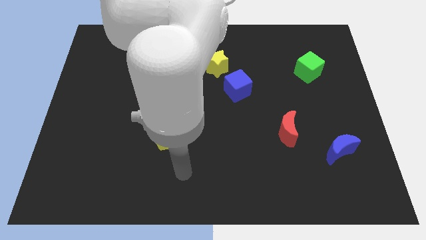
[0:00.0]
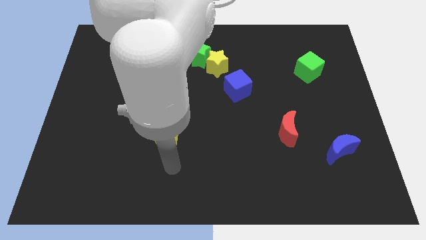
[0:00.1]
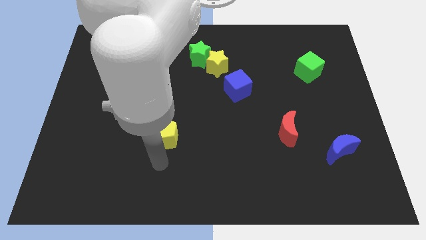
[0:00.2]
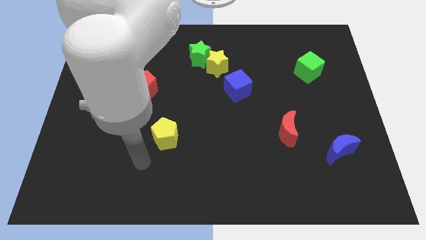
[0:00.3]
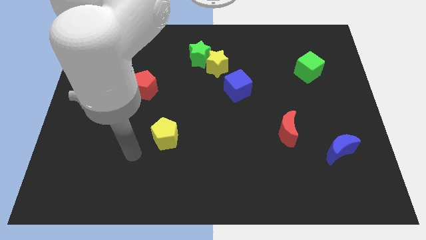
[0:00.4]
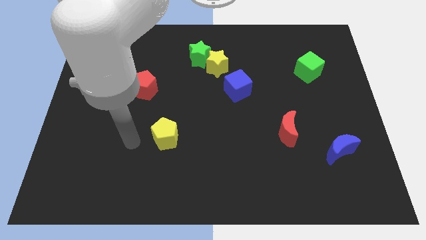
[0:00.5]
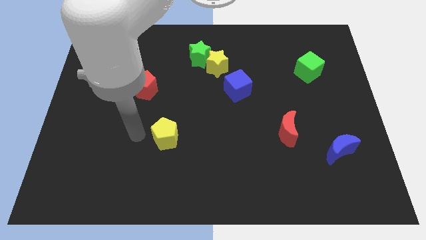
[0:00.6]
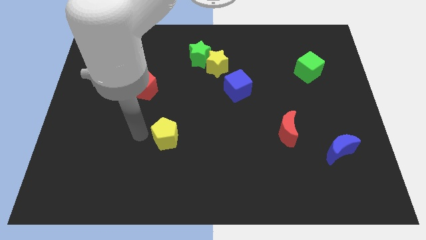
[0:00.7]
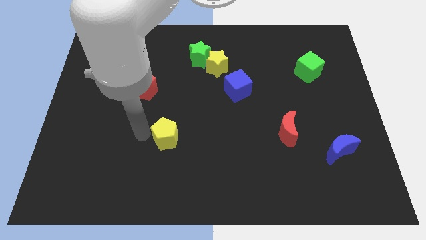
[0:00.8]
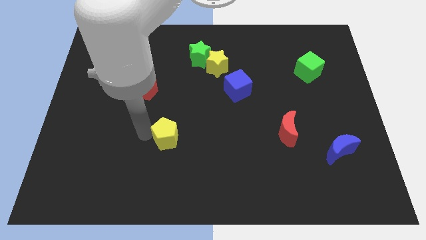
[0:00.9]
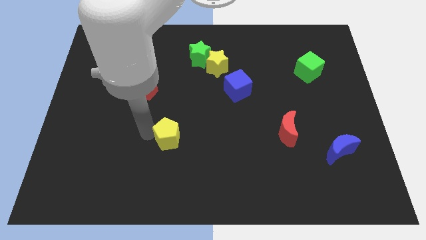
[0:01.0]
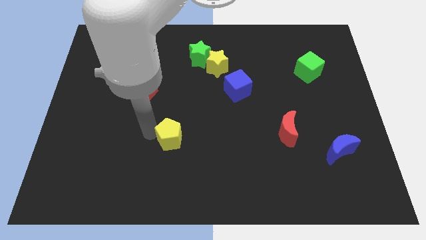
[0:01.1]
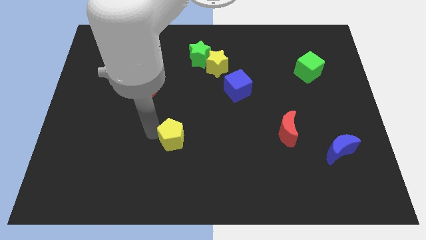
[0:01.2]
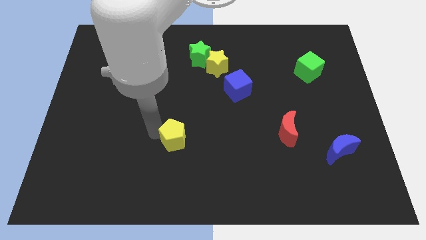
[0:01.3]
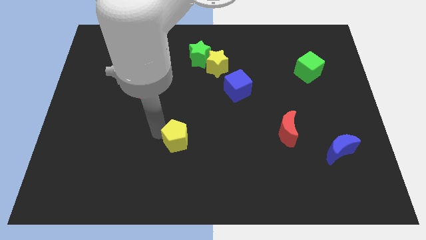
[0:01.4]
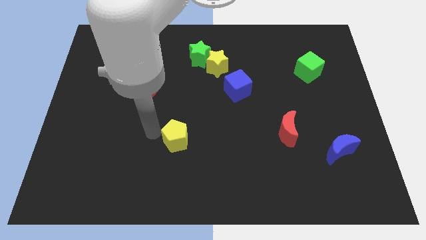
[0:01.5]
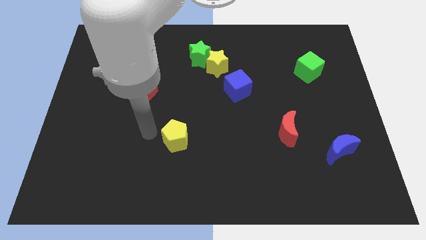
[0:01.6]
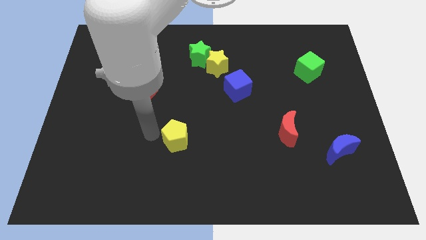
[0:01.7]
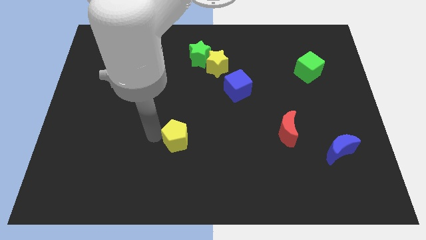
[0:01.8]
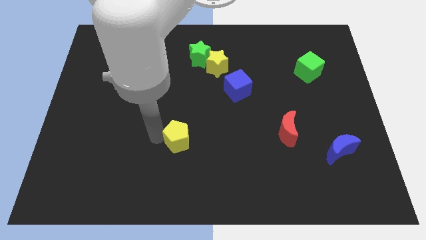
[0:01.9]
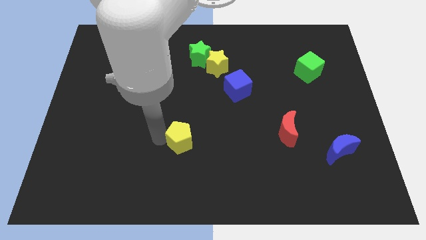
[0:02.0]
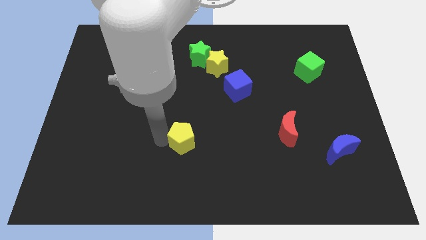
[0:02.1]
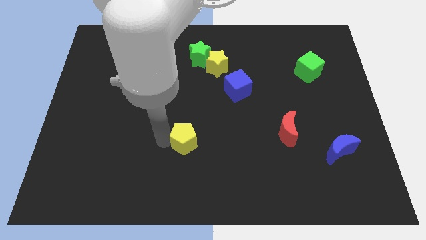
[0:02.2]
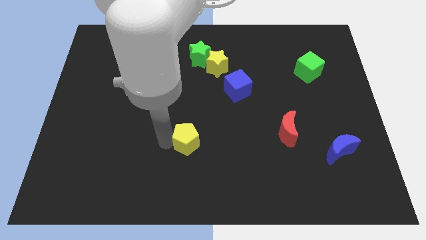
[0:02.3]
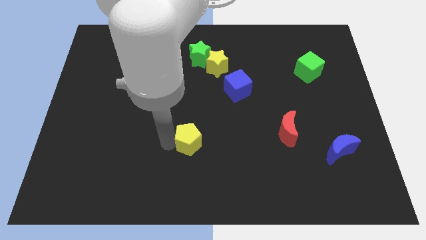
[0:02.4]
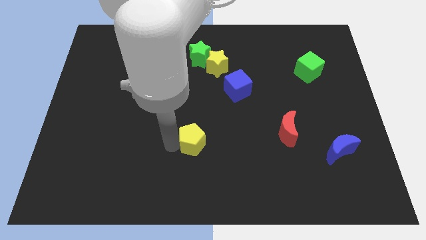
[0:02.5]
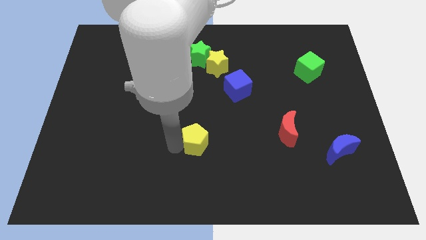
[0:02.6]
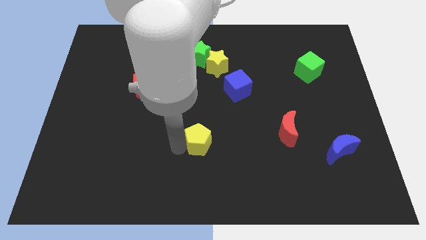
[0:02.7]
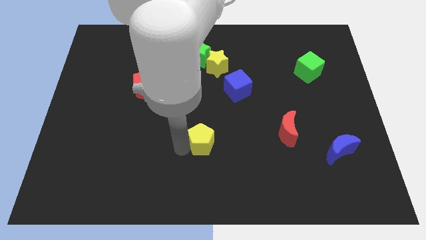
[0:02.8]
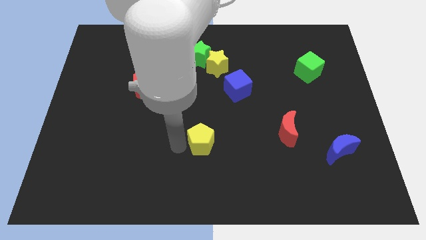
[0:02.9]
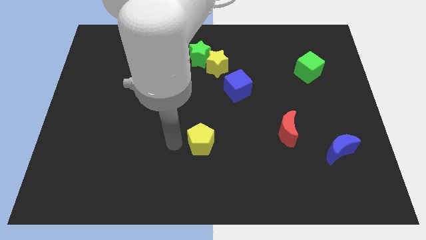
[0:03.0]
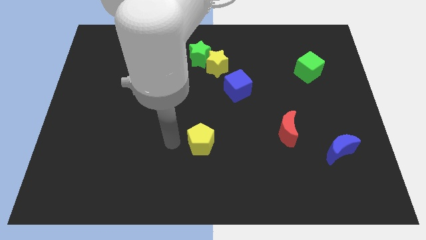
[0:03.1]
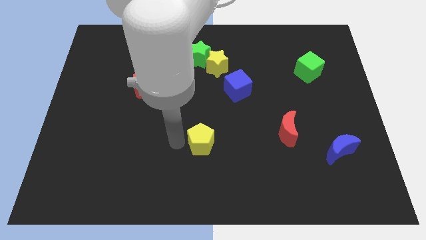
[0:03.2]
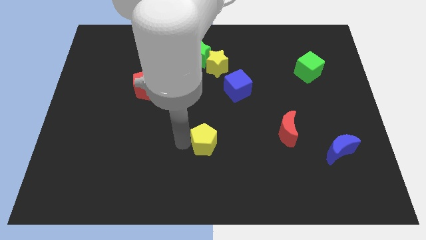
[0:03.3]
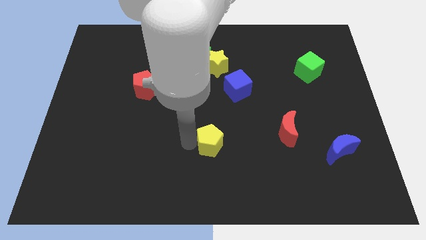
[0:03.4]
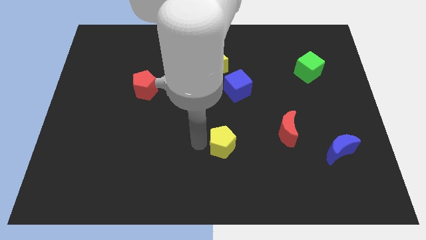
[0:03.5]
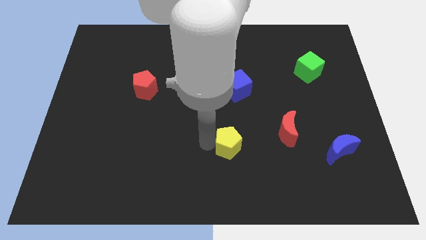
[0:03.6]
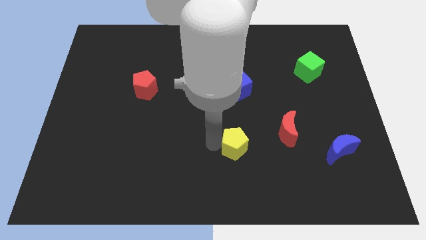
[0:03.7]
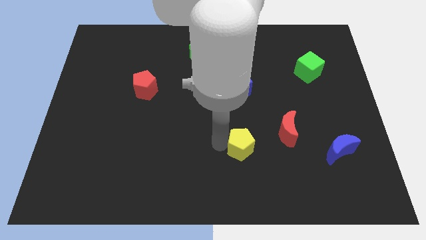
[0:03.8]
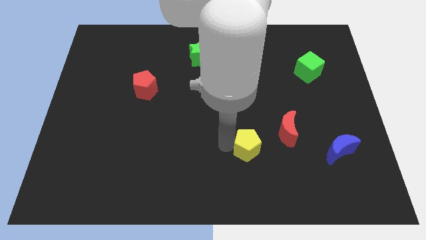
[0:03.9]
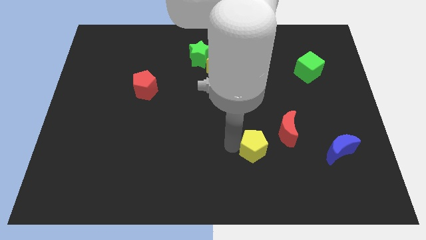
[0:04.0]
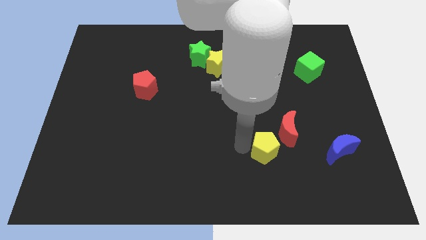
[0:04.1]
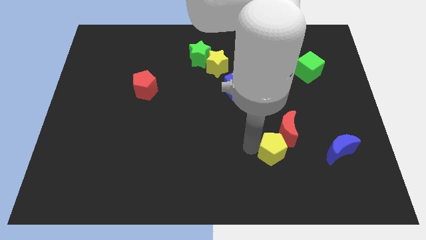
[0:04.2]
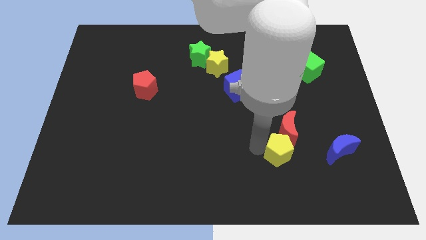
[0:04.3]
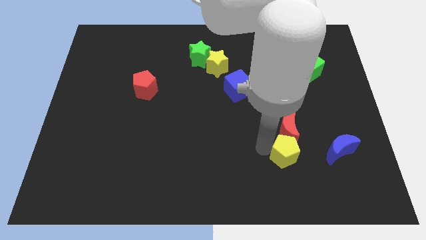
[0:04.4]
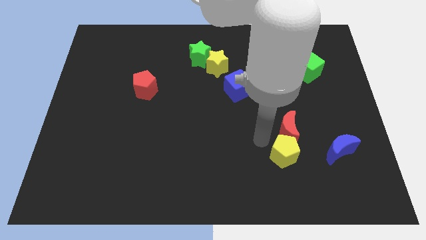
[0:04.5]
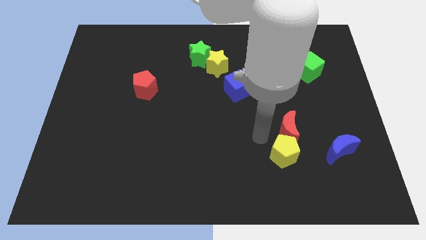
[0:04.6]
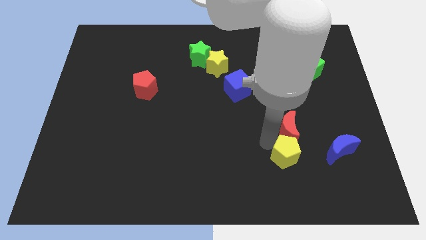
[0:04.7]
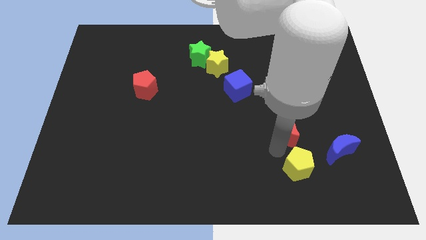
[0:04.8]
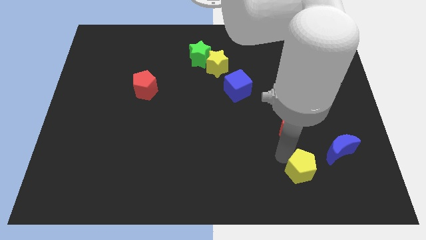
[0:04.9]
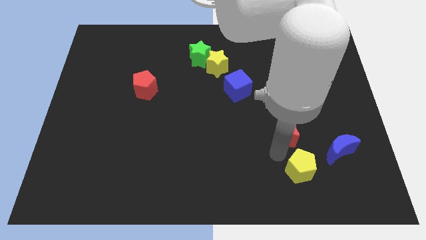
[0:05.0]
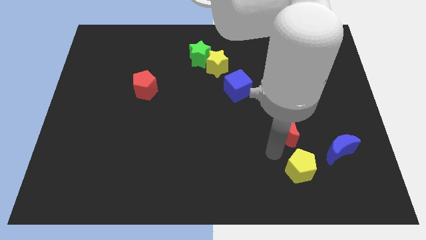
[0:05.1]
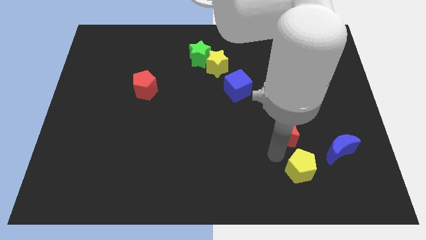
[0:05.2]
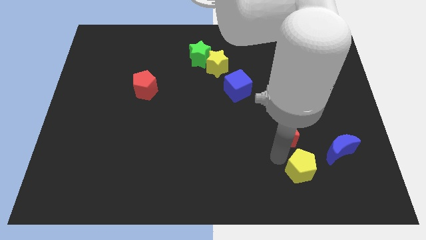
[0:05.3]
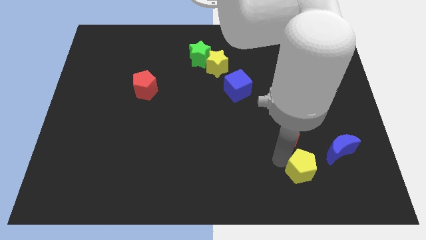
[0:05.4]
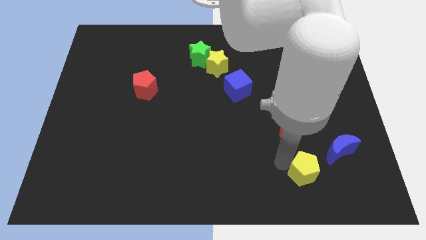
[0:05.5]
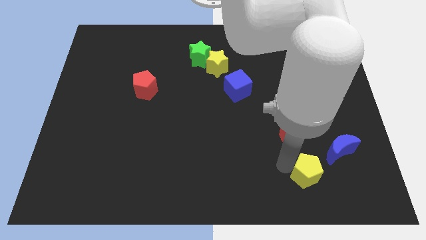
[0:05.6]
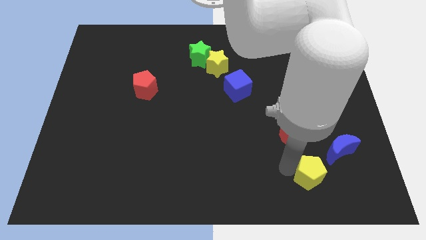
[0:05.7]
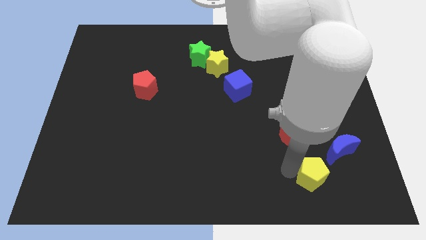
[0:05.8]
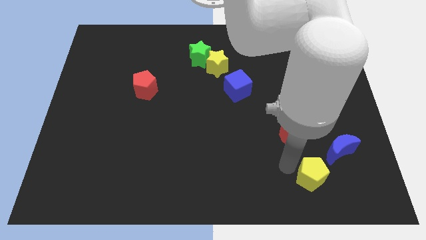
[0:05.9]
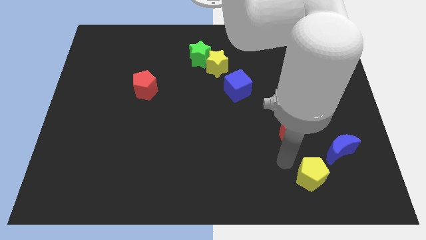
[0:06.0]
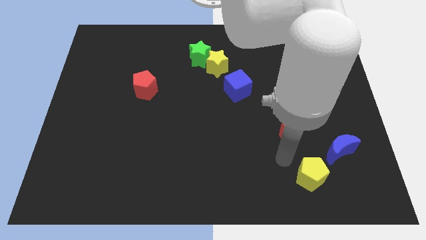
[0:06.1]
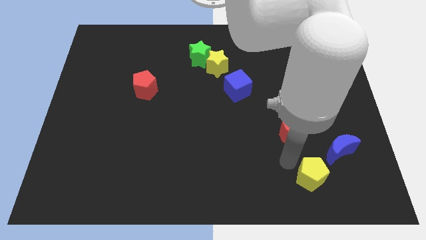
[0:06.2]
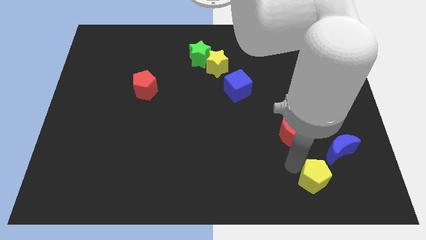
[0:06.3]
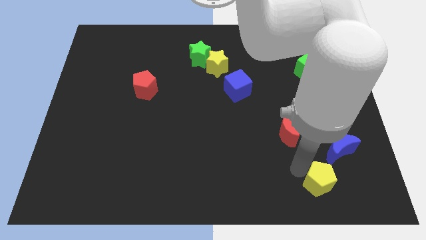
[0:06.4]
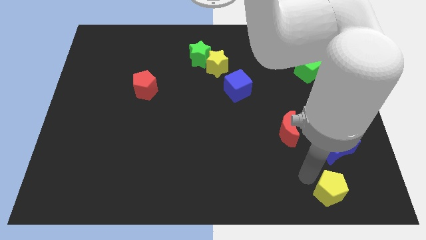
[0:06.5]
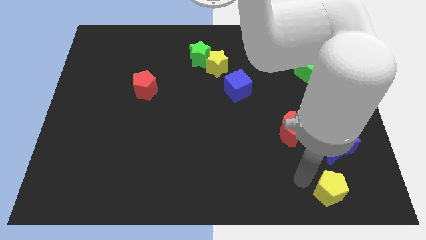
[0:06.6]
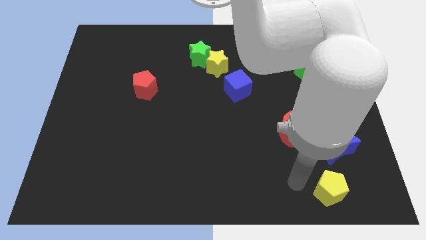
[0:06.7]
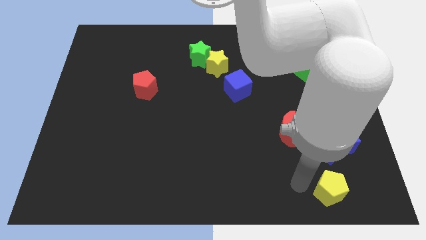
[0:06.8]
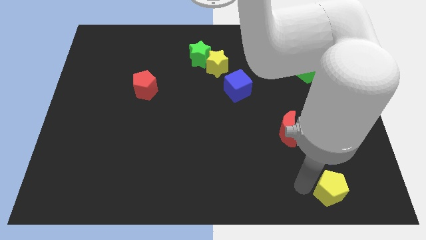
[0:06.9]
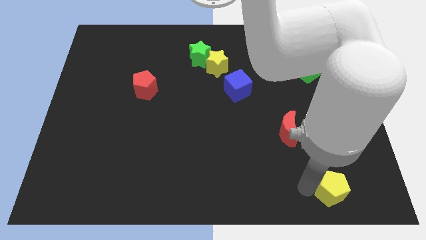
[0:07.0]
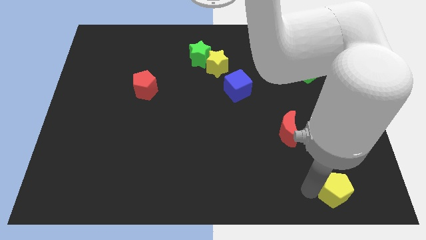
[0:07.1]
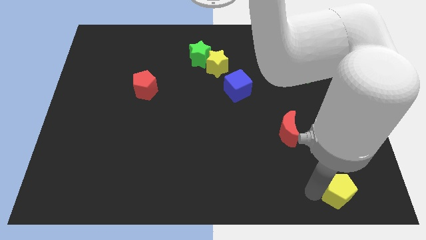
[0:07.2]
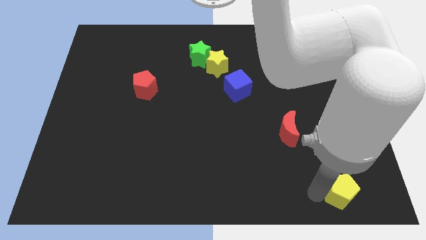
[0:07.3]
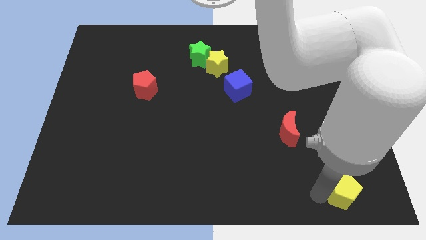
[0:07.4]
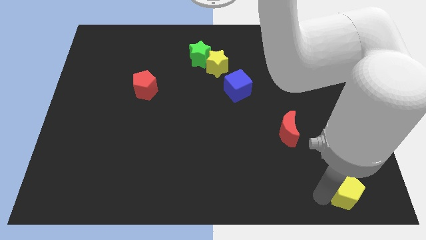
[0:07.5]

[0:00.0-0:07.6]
slide the yellow pentagon to the bottom right corner
